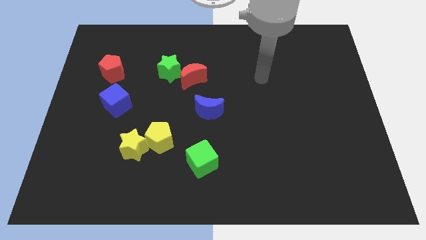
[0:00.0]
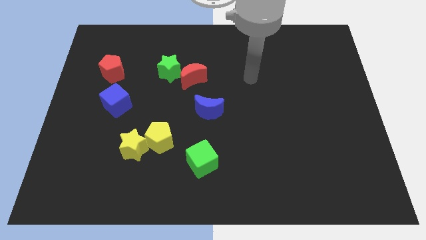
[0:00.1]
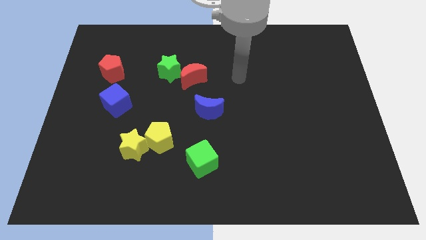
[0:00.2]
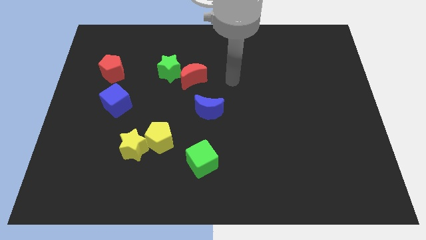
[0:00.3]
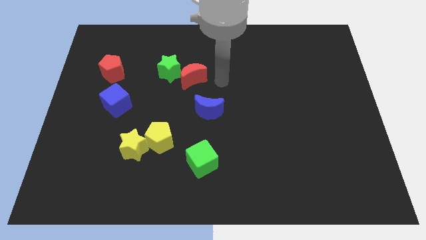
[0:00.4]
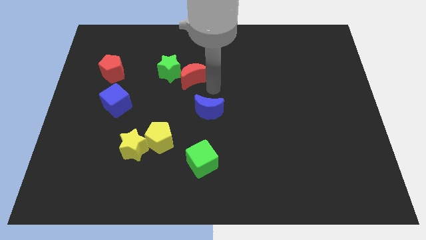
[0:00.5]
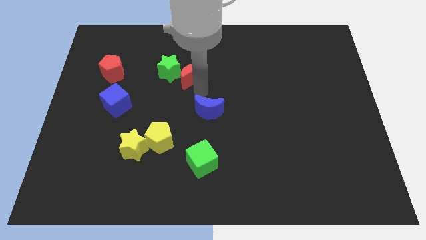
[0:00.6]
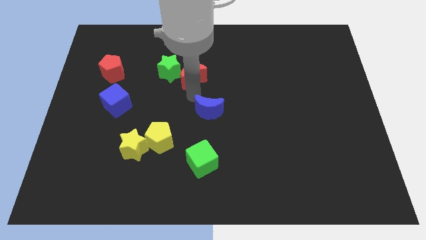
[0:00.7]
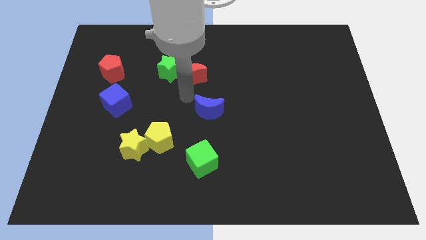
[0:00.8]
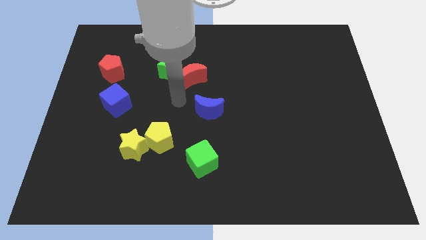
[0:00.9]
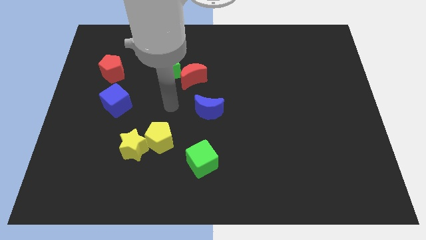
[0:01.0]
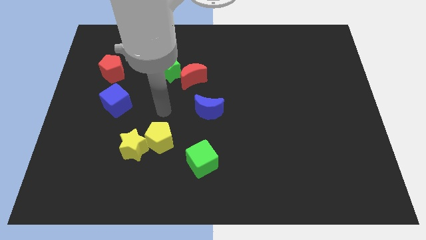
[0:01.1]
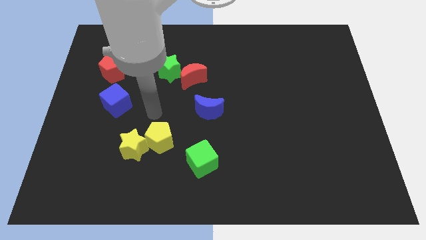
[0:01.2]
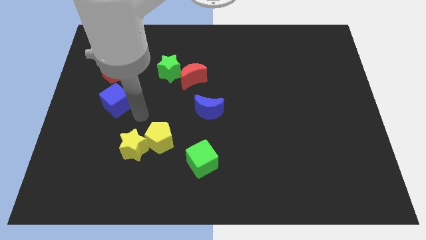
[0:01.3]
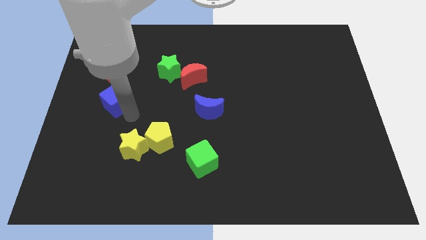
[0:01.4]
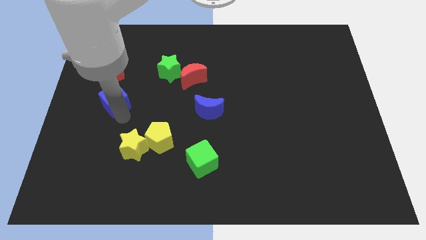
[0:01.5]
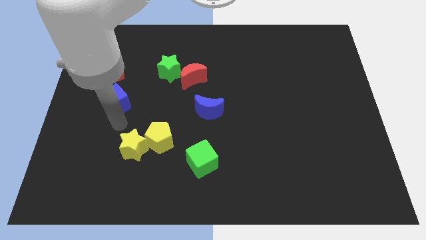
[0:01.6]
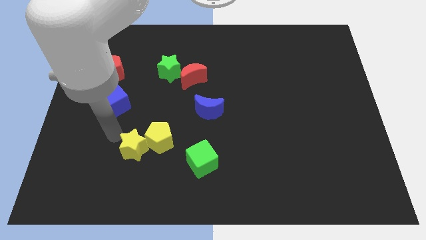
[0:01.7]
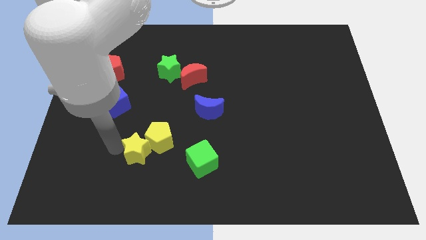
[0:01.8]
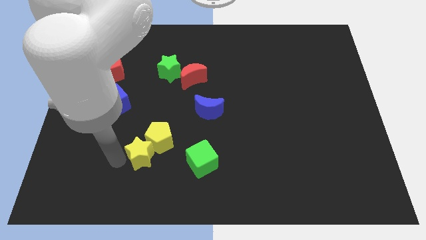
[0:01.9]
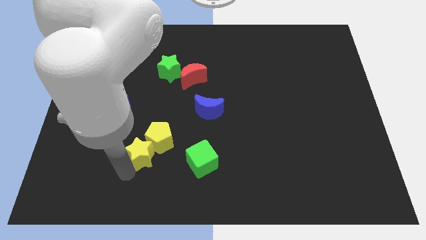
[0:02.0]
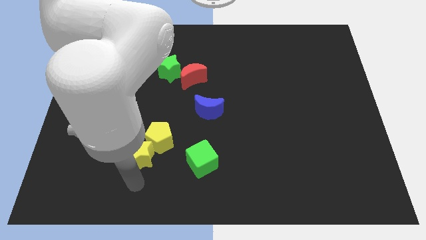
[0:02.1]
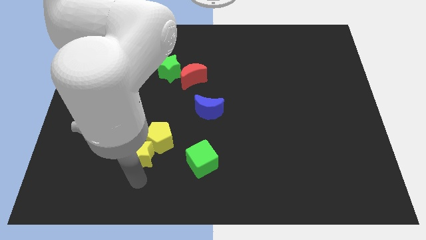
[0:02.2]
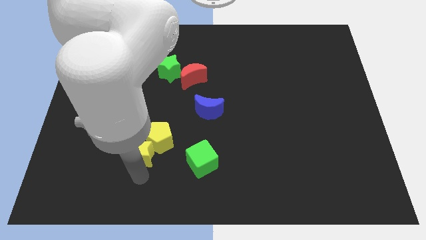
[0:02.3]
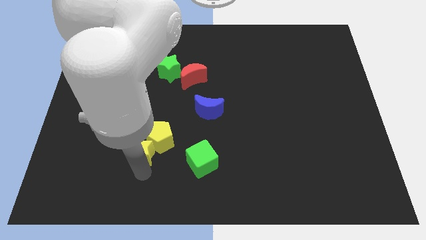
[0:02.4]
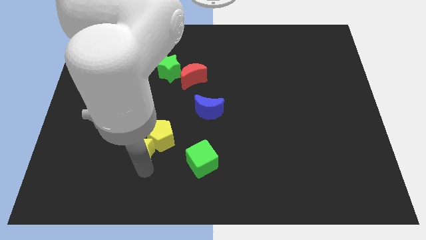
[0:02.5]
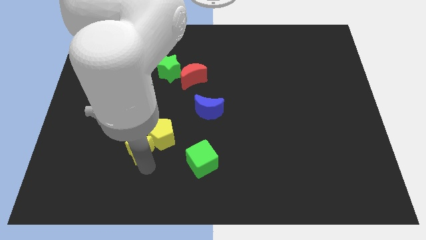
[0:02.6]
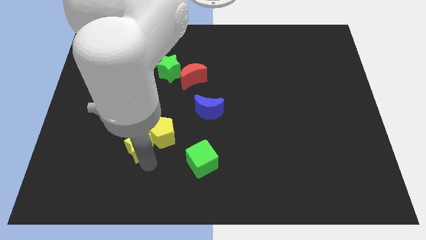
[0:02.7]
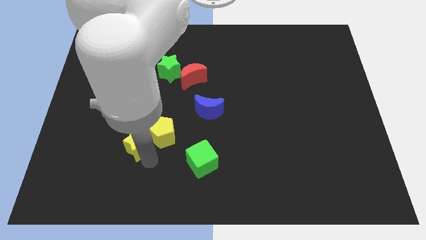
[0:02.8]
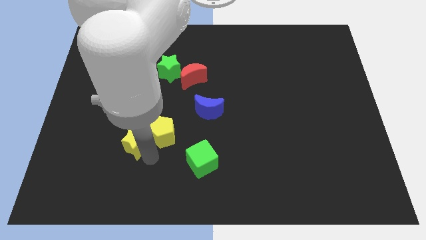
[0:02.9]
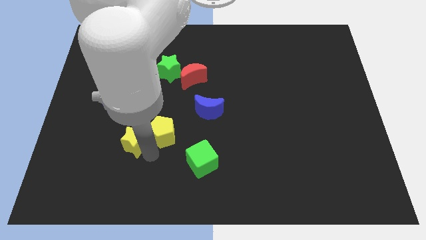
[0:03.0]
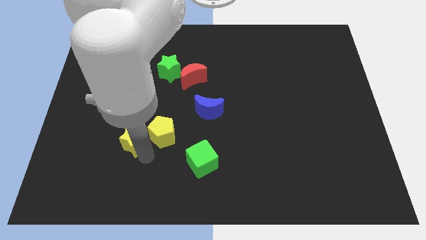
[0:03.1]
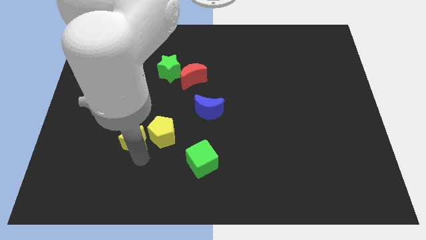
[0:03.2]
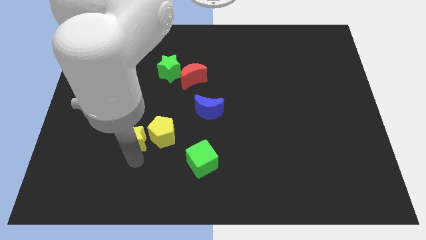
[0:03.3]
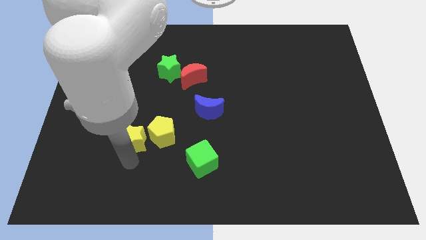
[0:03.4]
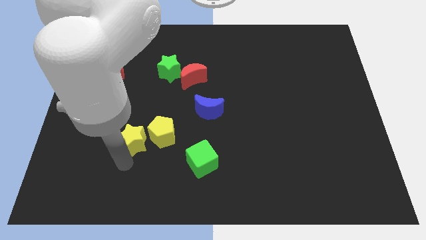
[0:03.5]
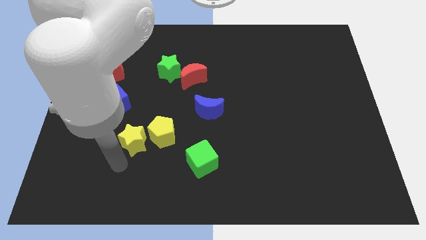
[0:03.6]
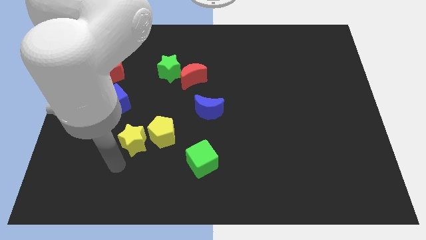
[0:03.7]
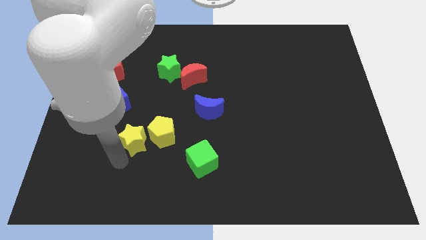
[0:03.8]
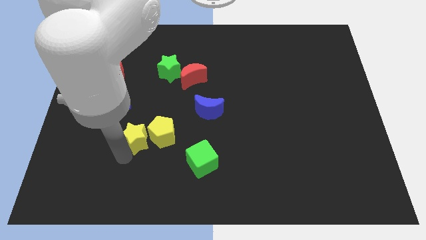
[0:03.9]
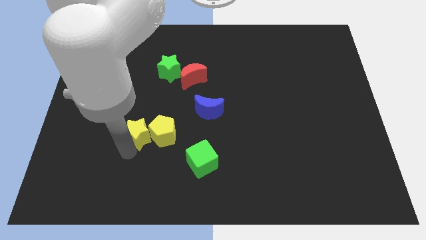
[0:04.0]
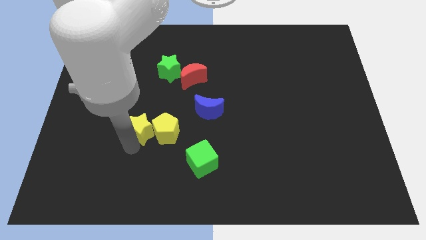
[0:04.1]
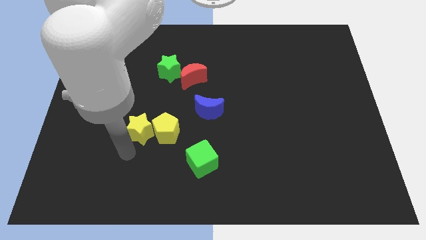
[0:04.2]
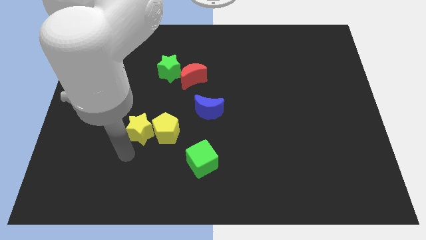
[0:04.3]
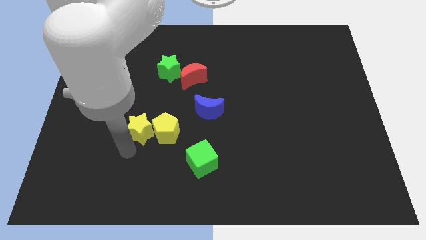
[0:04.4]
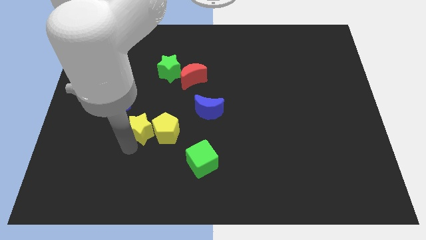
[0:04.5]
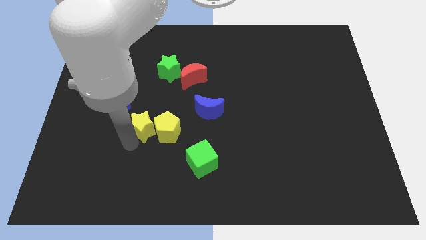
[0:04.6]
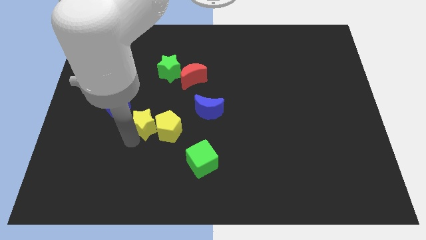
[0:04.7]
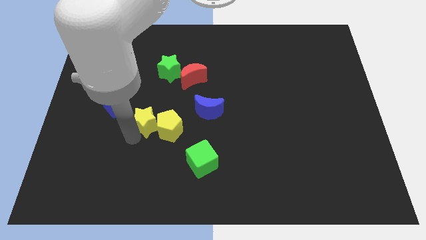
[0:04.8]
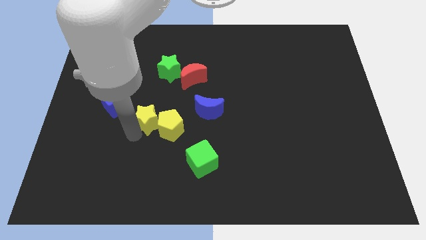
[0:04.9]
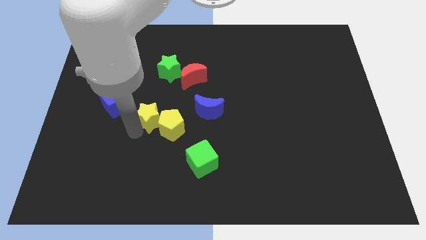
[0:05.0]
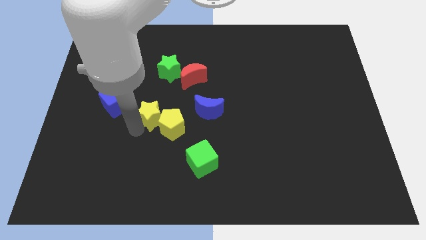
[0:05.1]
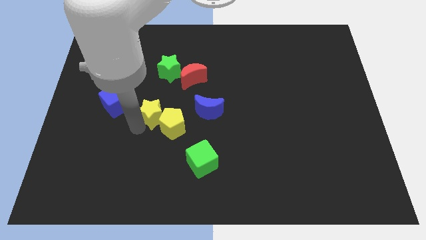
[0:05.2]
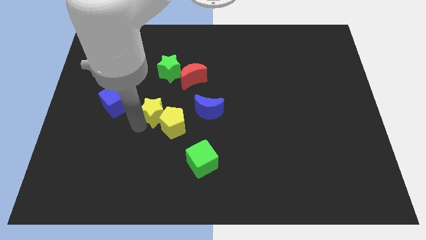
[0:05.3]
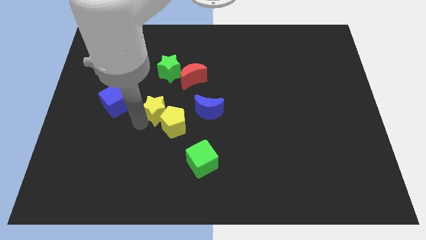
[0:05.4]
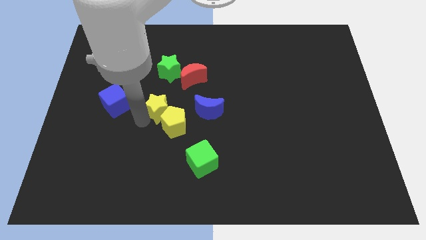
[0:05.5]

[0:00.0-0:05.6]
push the yellow star to the bottom left of the red moon

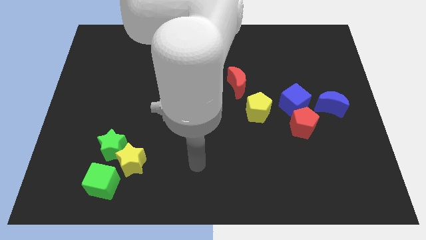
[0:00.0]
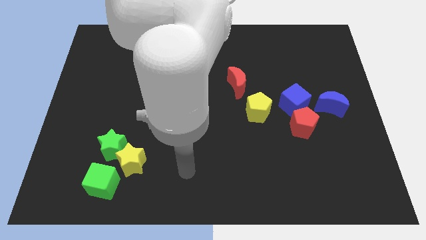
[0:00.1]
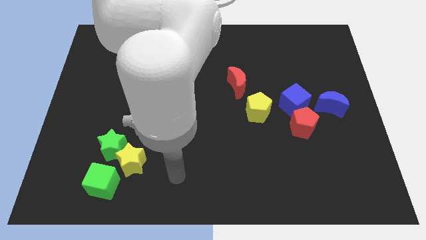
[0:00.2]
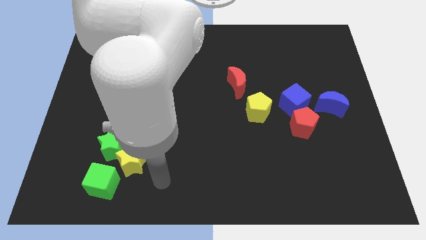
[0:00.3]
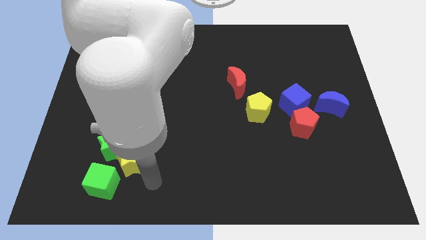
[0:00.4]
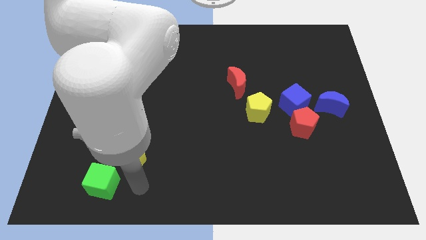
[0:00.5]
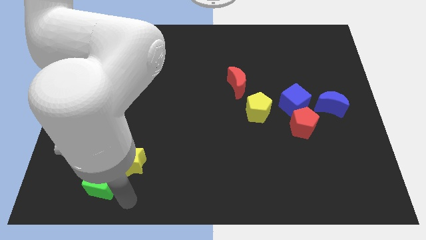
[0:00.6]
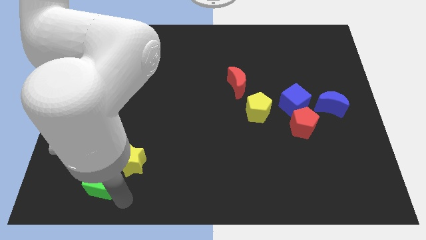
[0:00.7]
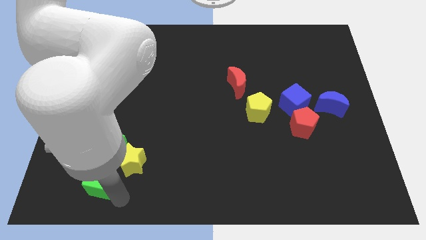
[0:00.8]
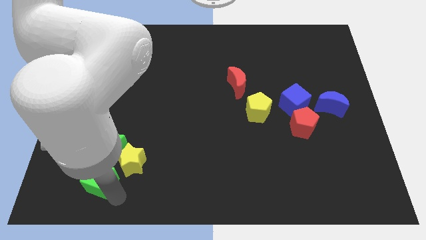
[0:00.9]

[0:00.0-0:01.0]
move the green cube diagonally down and to the left of the green star

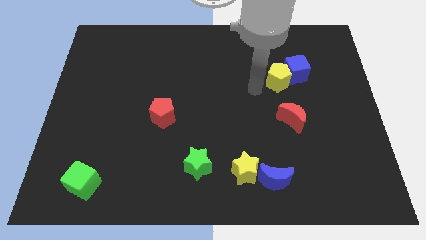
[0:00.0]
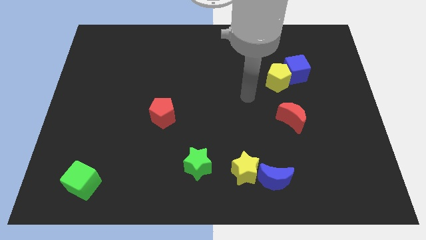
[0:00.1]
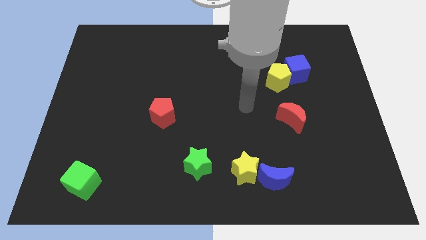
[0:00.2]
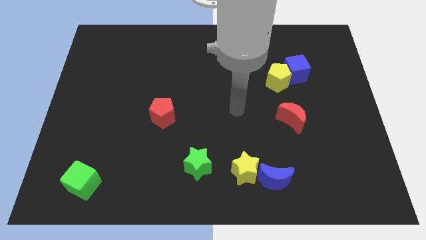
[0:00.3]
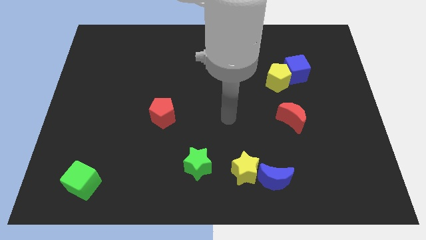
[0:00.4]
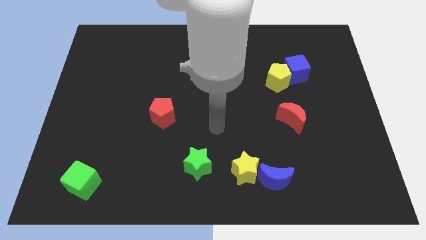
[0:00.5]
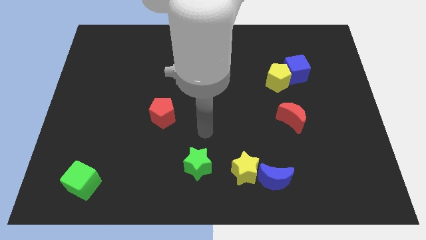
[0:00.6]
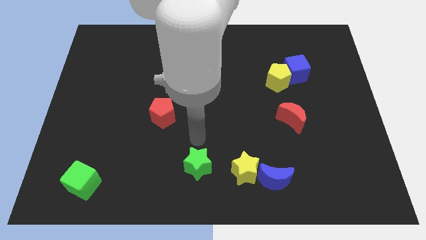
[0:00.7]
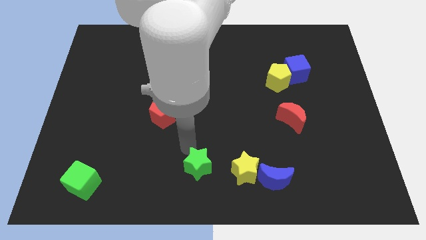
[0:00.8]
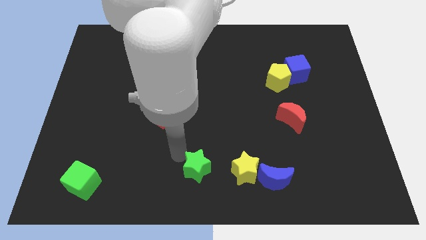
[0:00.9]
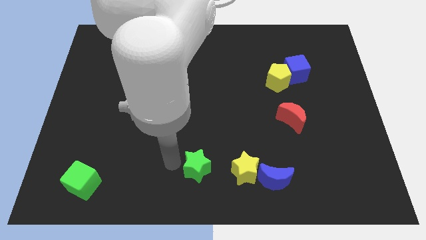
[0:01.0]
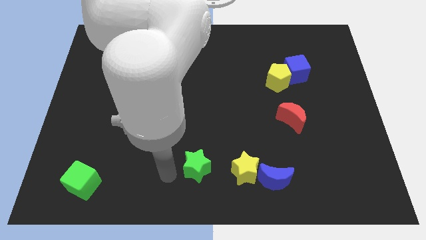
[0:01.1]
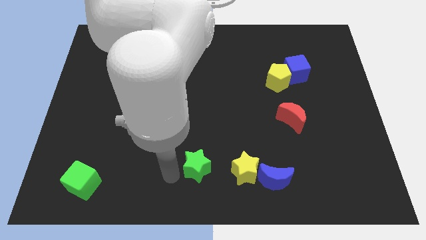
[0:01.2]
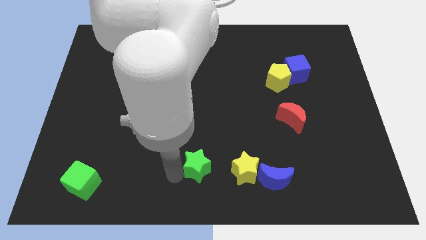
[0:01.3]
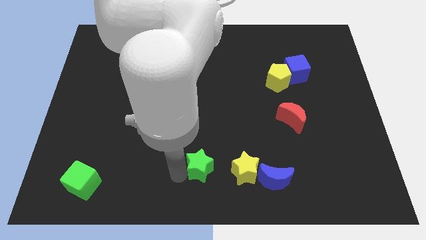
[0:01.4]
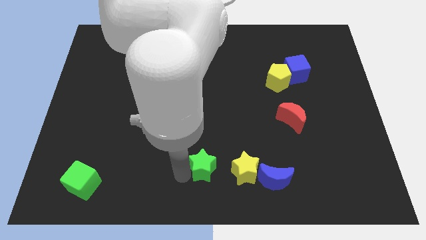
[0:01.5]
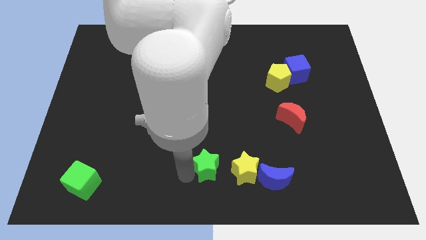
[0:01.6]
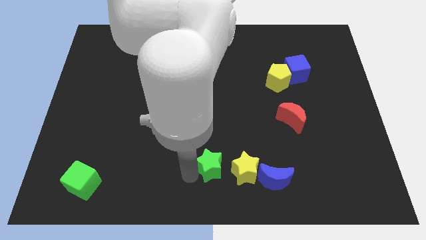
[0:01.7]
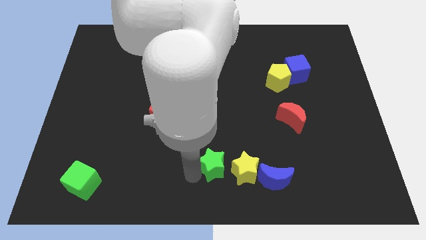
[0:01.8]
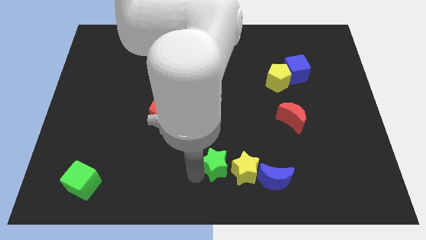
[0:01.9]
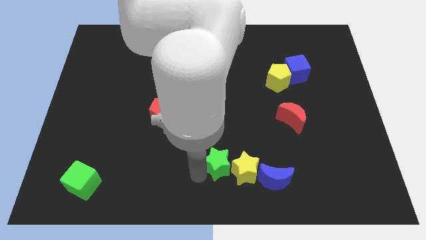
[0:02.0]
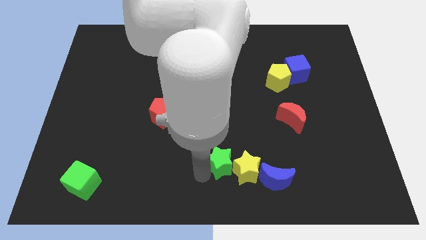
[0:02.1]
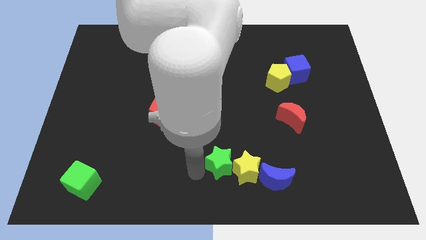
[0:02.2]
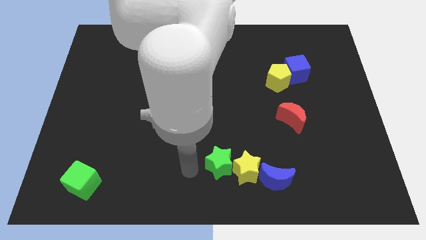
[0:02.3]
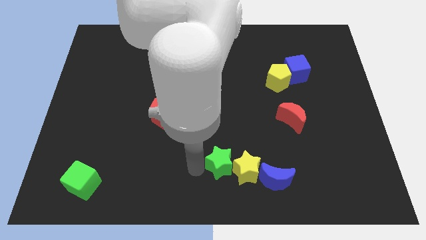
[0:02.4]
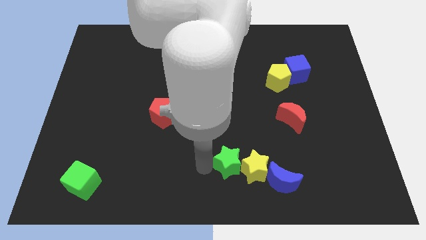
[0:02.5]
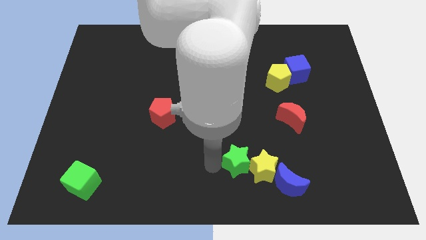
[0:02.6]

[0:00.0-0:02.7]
put the green star diagonally up and to the left of the blue moon
